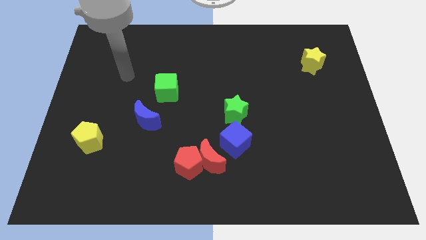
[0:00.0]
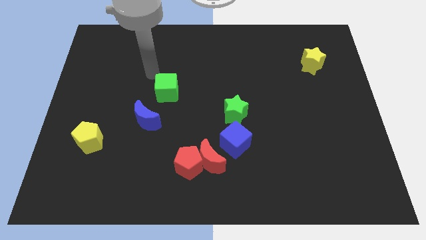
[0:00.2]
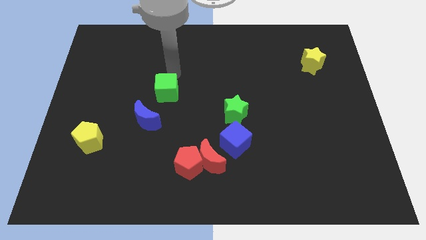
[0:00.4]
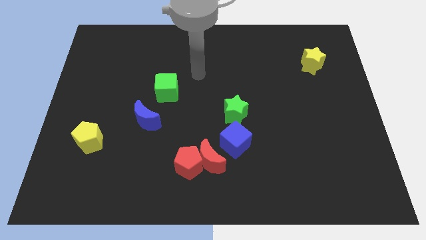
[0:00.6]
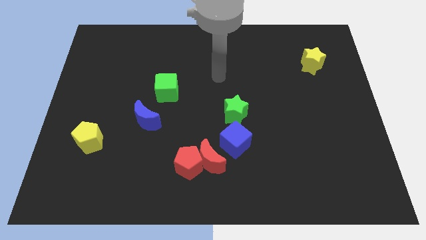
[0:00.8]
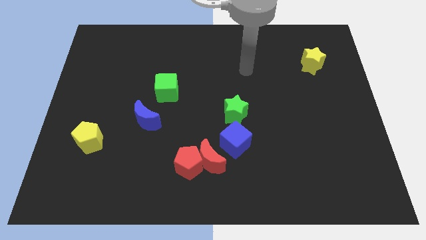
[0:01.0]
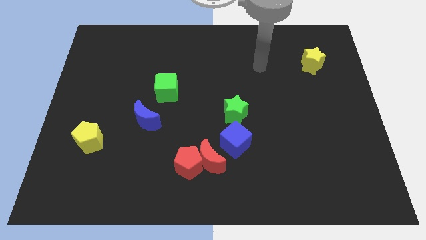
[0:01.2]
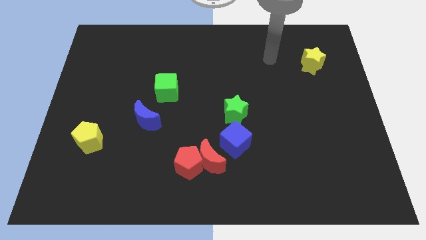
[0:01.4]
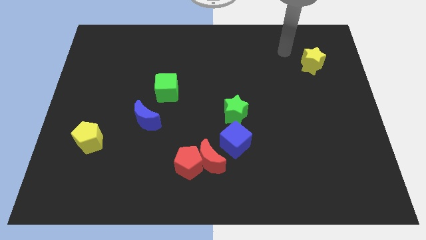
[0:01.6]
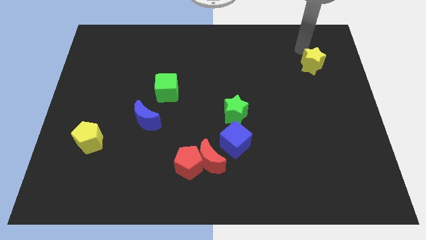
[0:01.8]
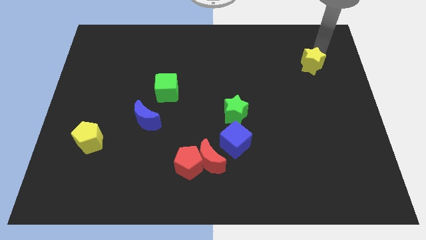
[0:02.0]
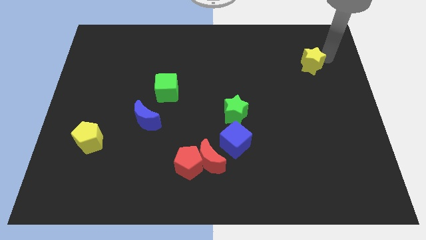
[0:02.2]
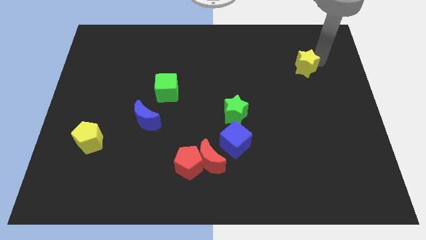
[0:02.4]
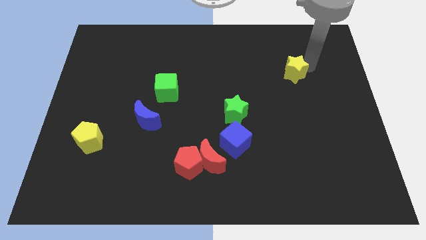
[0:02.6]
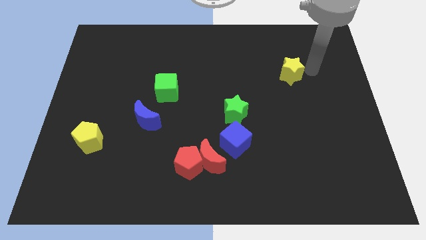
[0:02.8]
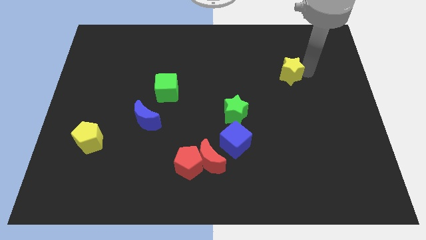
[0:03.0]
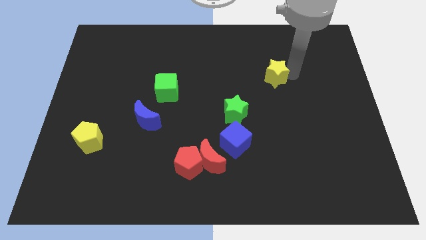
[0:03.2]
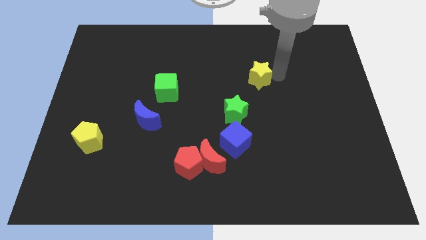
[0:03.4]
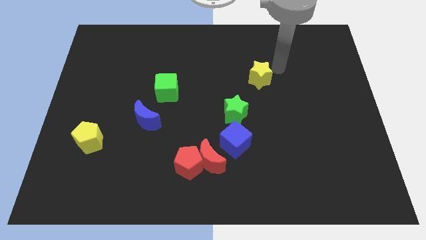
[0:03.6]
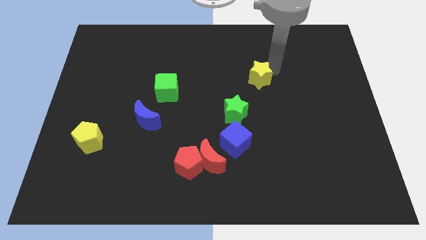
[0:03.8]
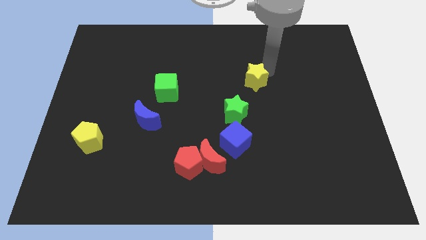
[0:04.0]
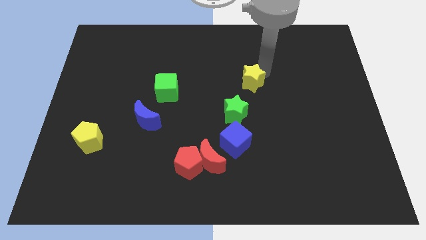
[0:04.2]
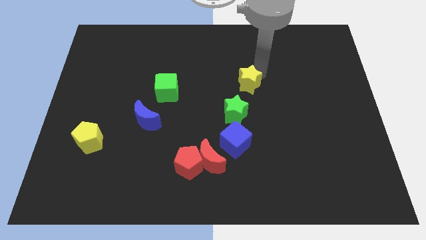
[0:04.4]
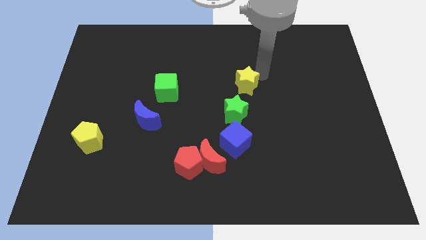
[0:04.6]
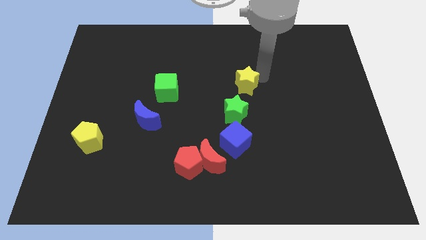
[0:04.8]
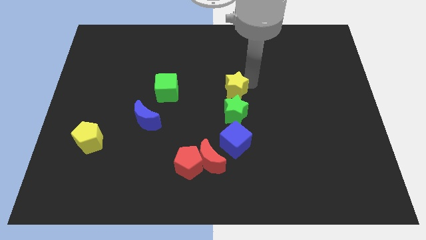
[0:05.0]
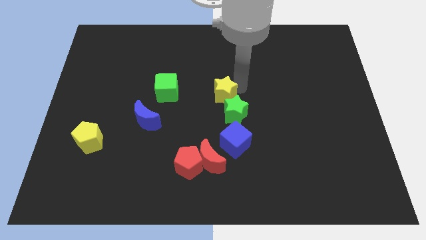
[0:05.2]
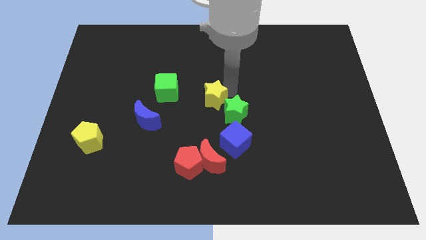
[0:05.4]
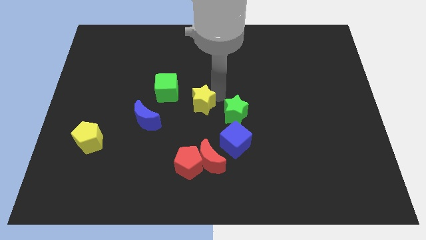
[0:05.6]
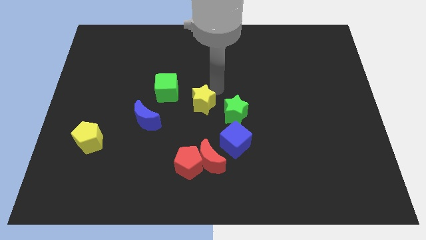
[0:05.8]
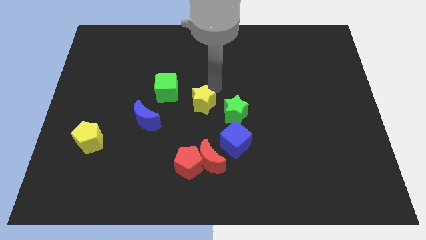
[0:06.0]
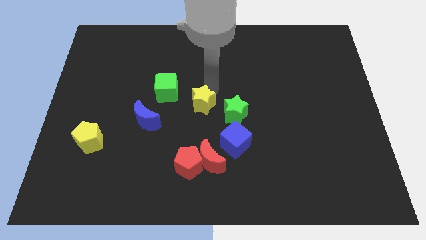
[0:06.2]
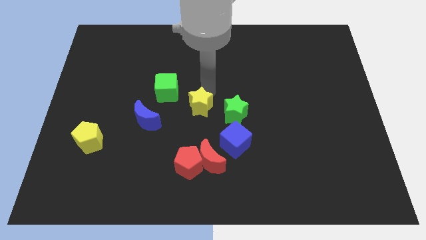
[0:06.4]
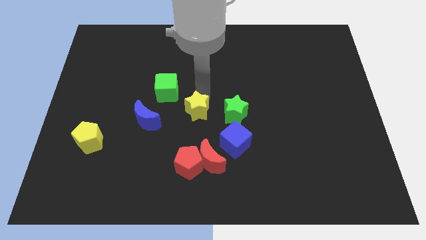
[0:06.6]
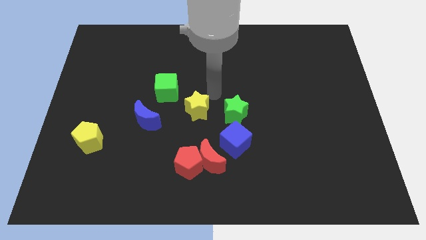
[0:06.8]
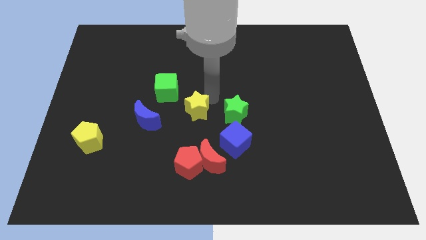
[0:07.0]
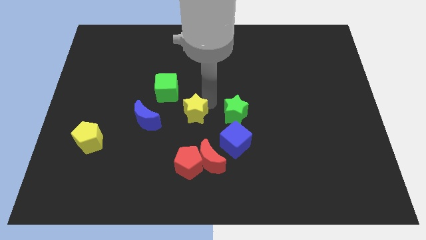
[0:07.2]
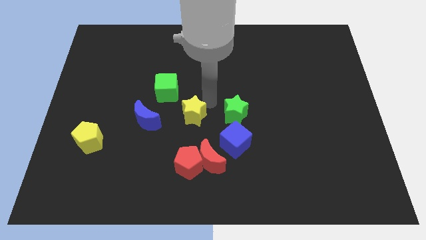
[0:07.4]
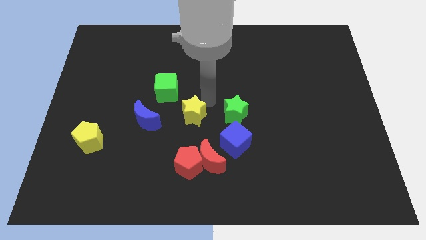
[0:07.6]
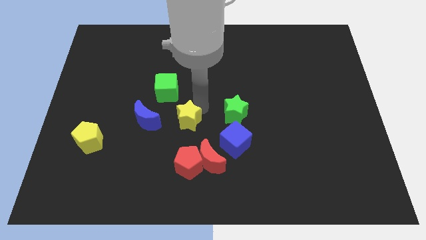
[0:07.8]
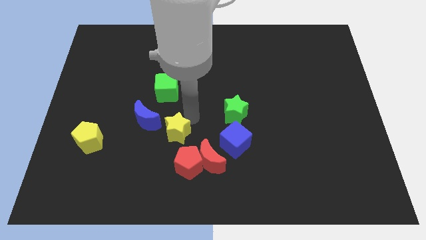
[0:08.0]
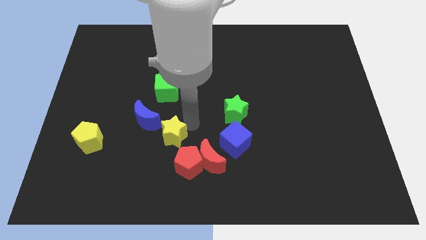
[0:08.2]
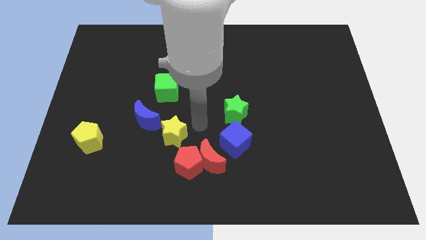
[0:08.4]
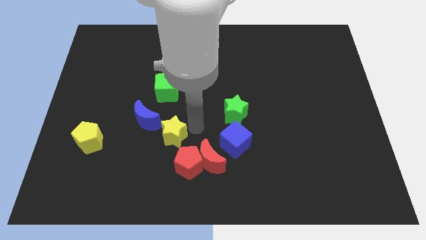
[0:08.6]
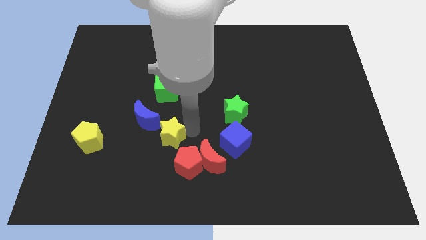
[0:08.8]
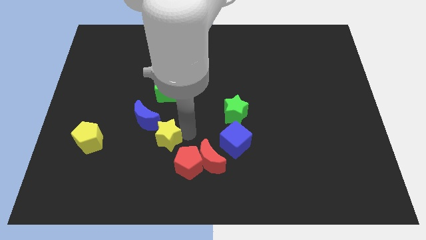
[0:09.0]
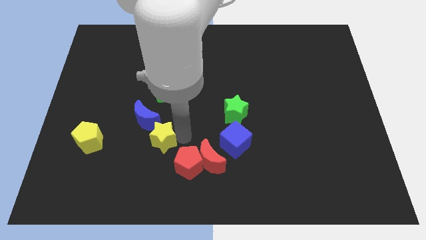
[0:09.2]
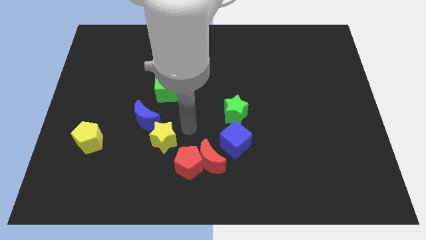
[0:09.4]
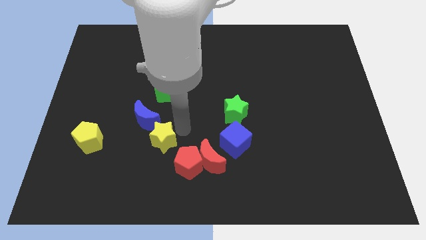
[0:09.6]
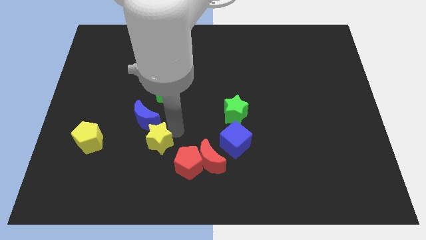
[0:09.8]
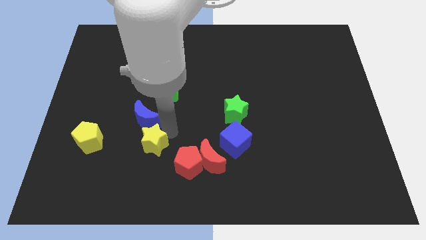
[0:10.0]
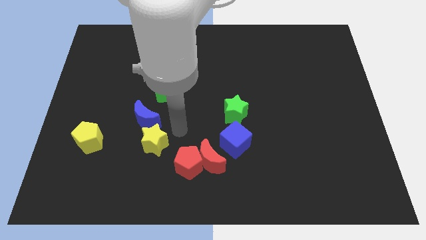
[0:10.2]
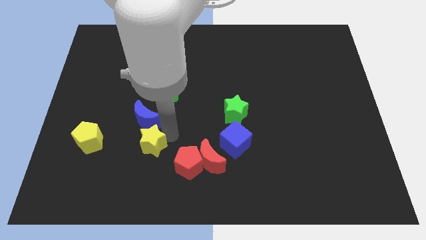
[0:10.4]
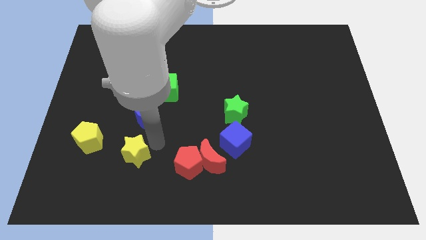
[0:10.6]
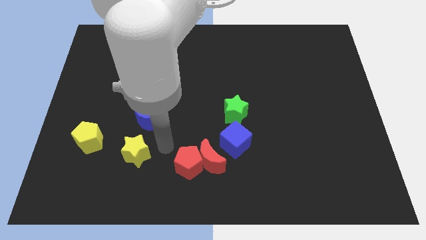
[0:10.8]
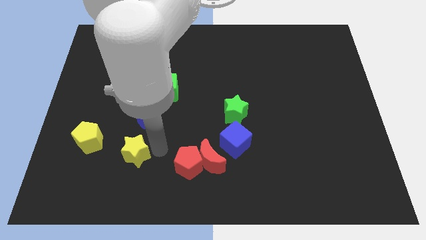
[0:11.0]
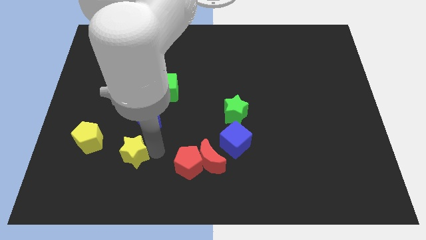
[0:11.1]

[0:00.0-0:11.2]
put the yellow star to the bottom right of the yellow pentagon

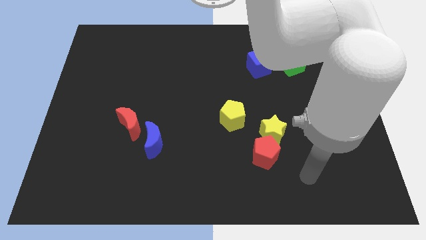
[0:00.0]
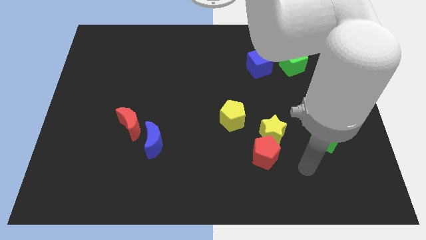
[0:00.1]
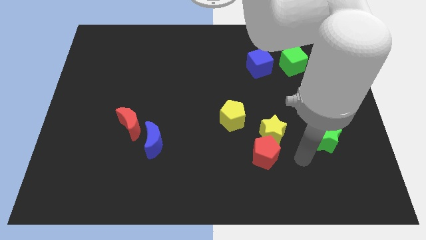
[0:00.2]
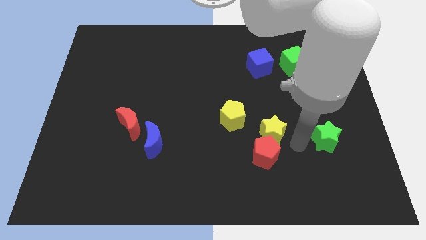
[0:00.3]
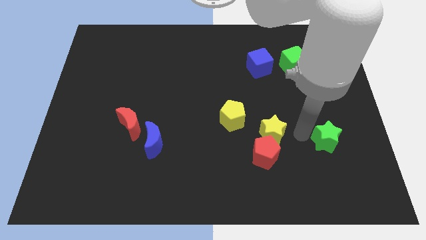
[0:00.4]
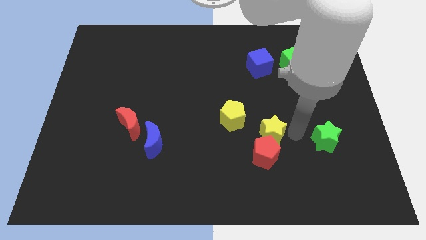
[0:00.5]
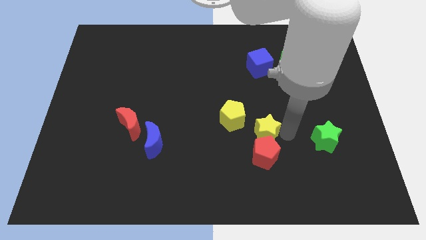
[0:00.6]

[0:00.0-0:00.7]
push the yellow star to the top left of the red pentagon
